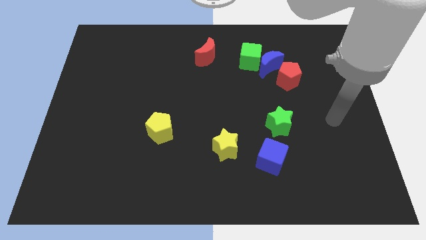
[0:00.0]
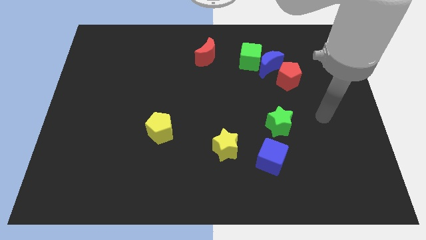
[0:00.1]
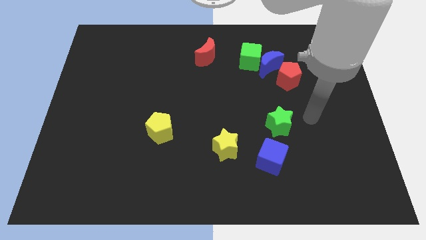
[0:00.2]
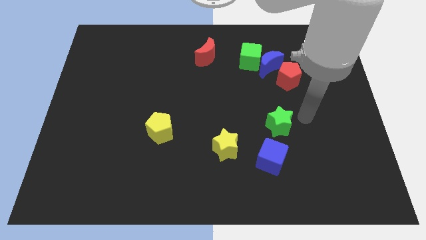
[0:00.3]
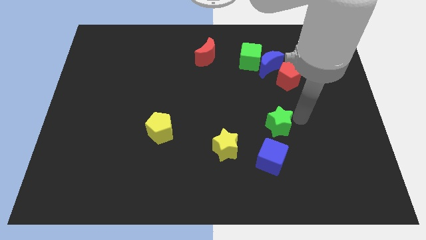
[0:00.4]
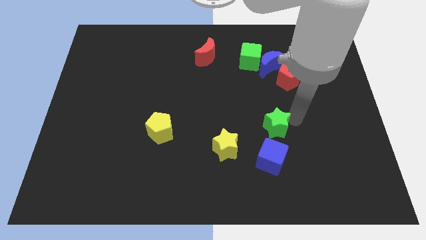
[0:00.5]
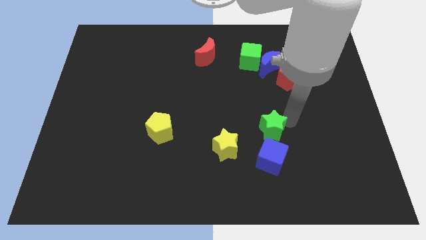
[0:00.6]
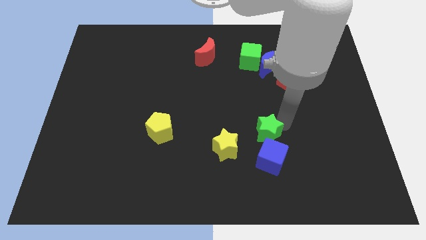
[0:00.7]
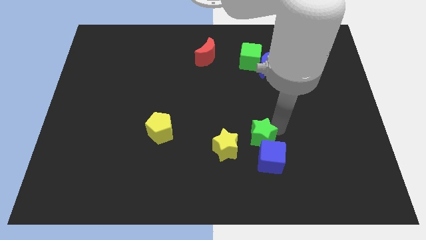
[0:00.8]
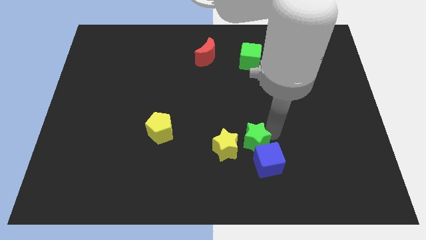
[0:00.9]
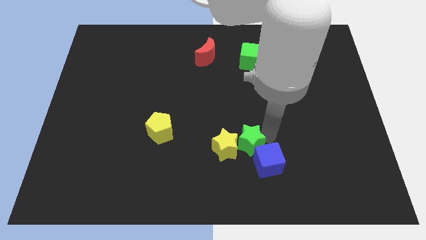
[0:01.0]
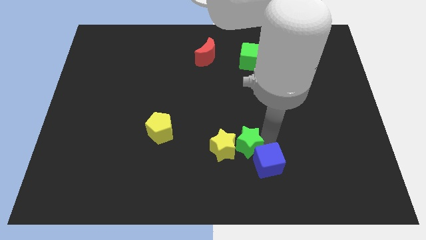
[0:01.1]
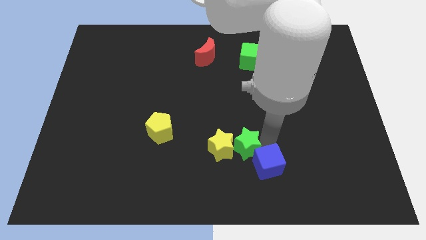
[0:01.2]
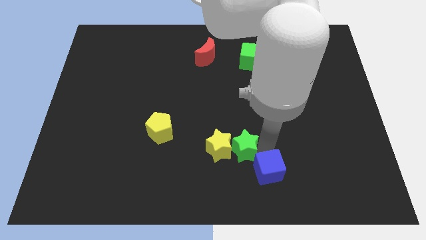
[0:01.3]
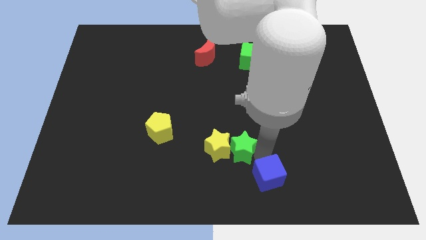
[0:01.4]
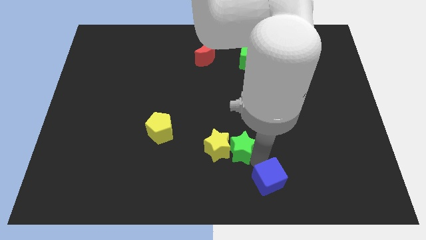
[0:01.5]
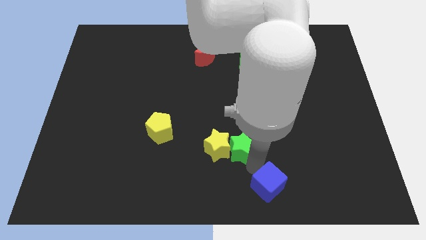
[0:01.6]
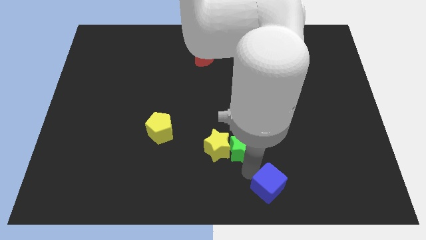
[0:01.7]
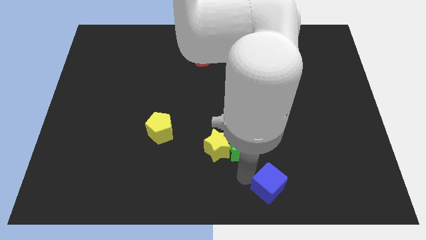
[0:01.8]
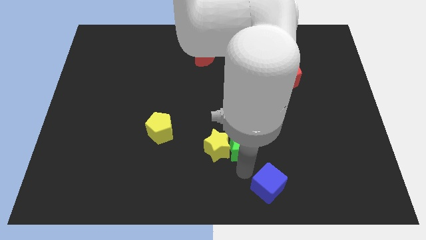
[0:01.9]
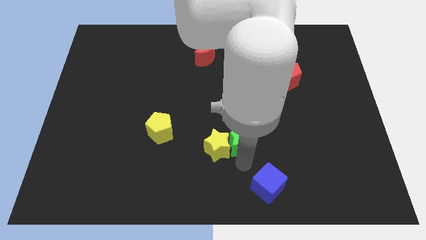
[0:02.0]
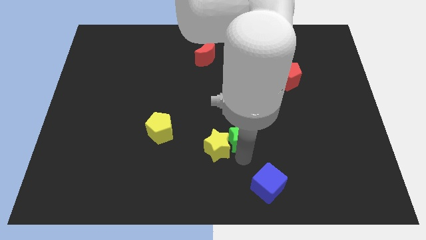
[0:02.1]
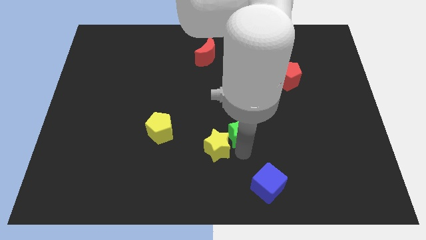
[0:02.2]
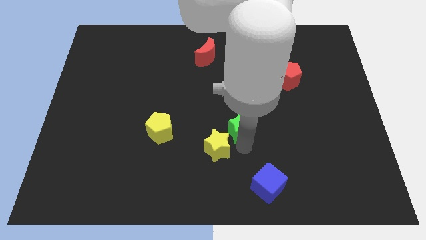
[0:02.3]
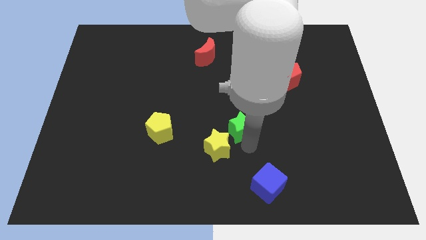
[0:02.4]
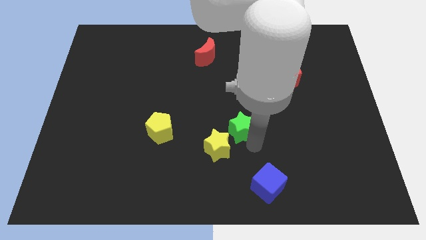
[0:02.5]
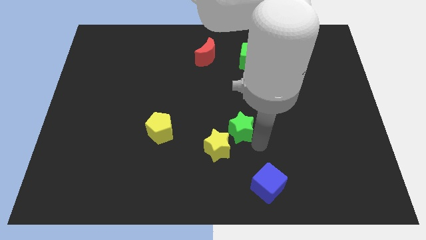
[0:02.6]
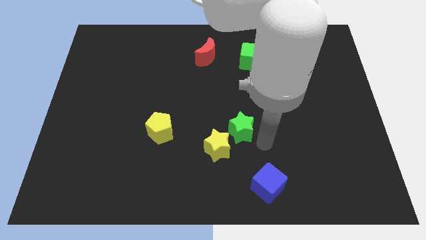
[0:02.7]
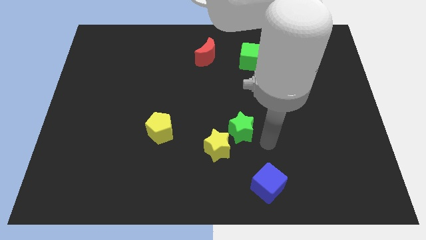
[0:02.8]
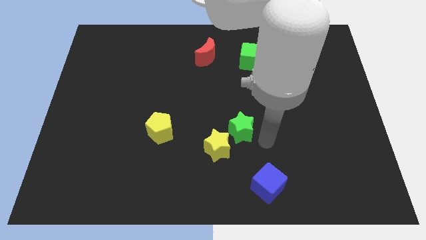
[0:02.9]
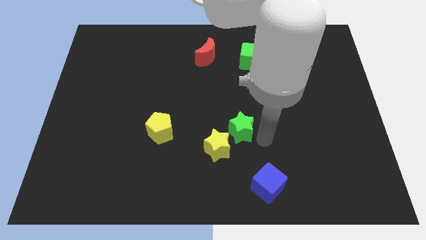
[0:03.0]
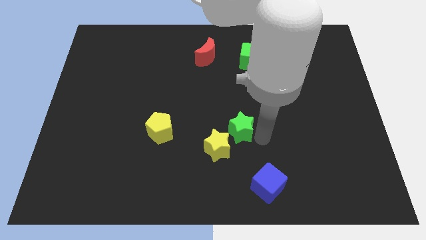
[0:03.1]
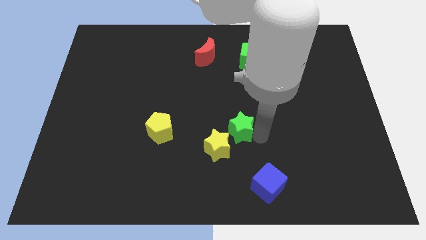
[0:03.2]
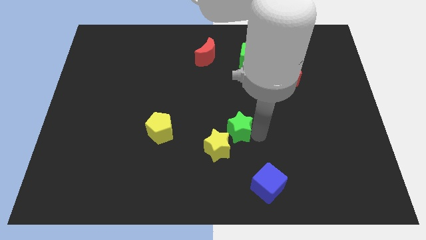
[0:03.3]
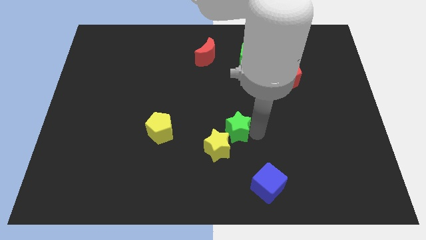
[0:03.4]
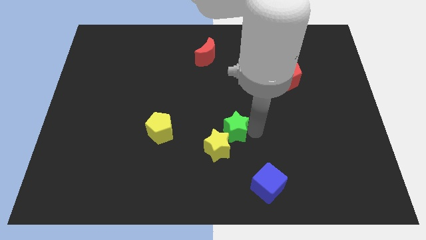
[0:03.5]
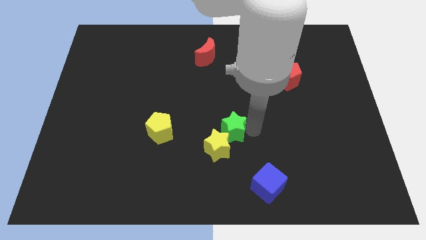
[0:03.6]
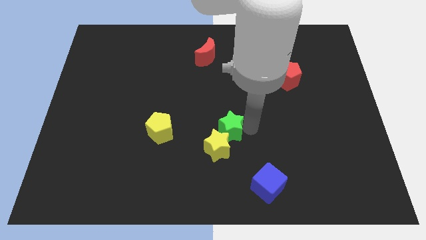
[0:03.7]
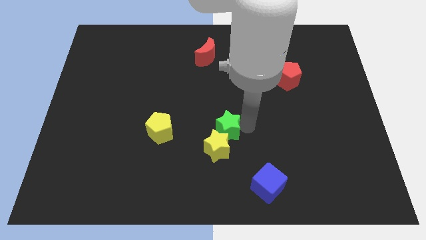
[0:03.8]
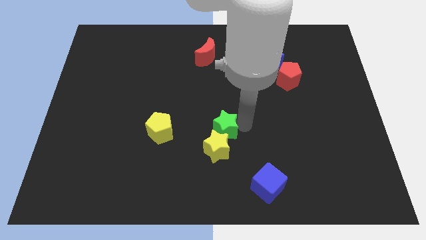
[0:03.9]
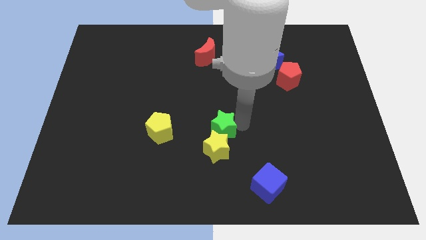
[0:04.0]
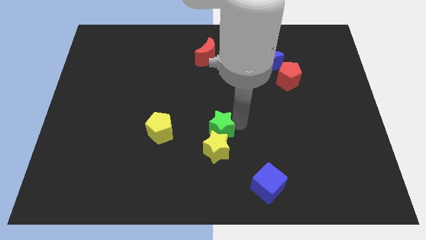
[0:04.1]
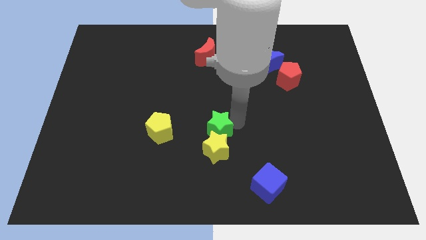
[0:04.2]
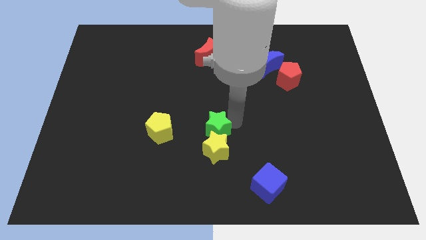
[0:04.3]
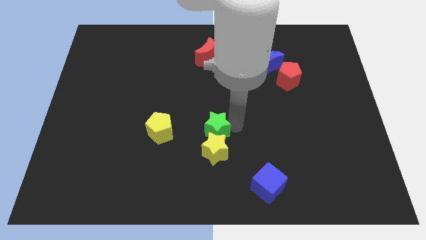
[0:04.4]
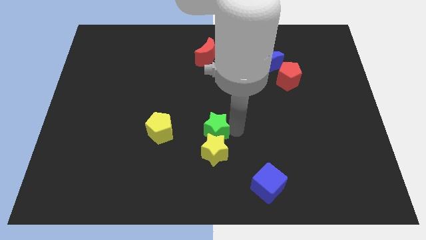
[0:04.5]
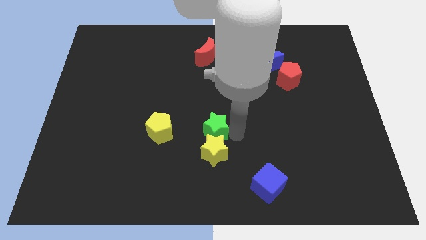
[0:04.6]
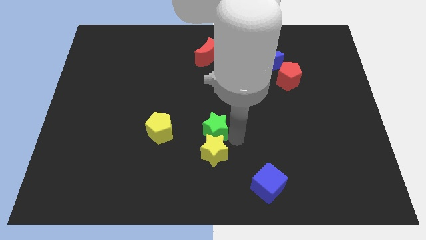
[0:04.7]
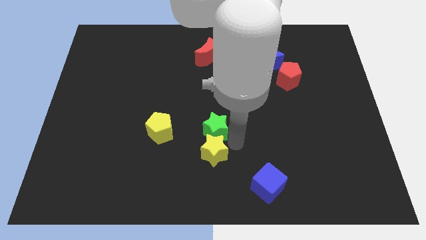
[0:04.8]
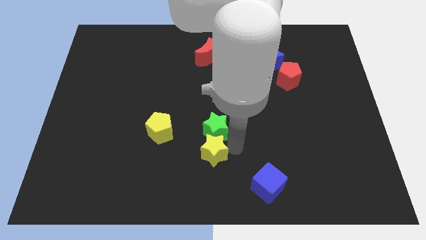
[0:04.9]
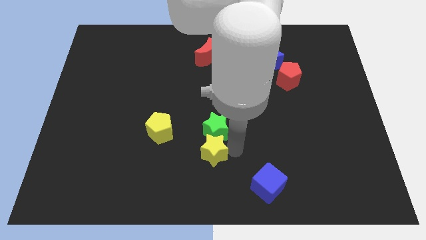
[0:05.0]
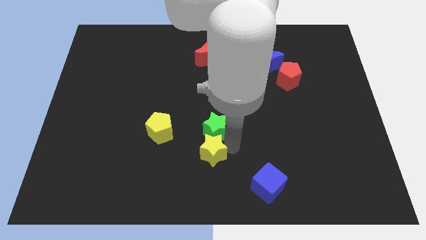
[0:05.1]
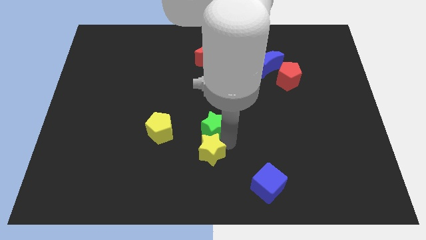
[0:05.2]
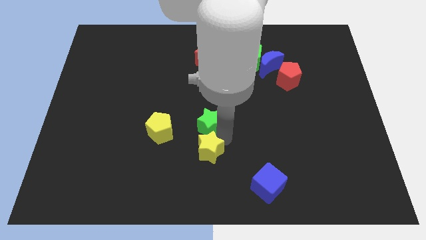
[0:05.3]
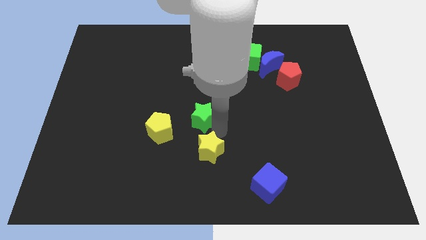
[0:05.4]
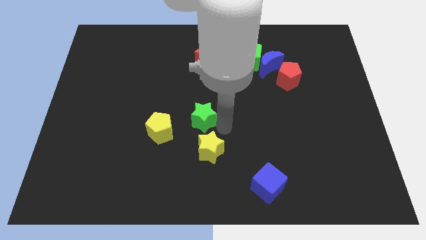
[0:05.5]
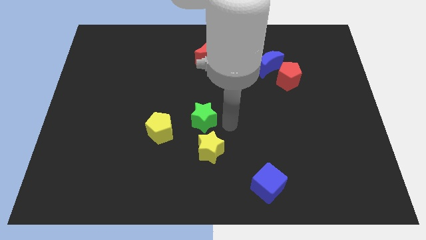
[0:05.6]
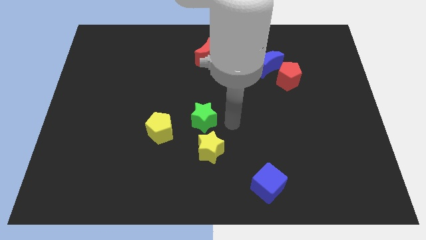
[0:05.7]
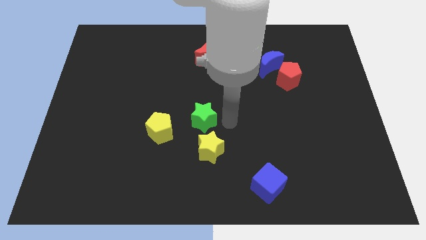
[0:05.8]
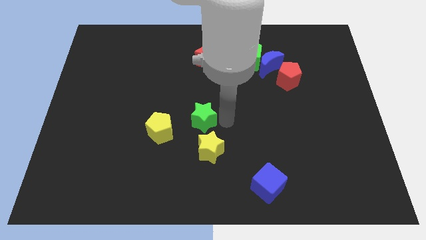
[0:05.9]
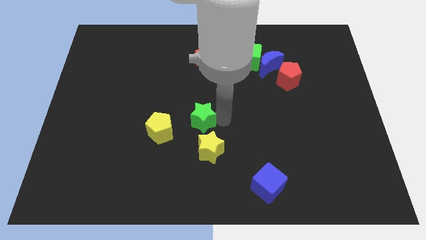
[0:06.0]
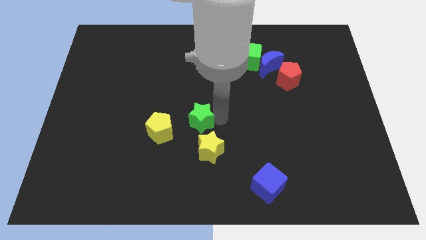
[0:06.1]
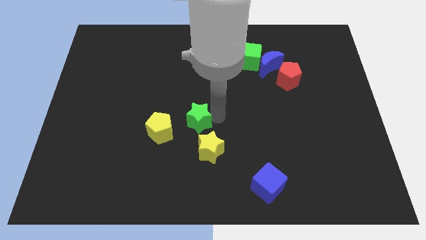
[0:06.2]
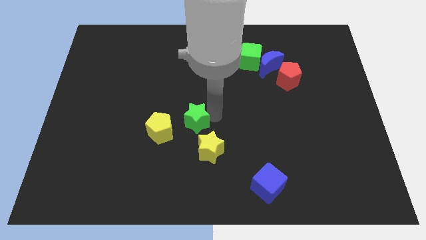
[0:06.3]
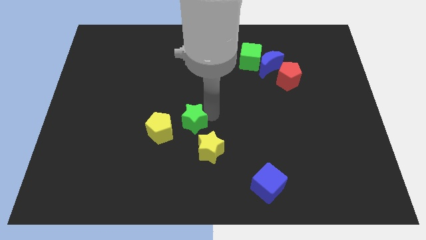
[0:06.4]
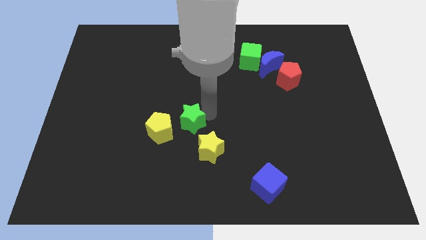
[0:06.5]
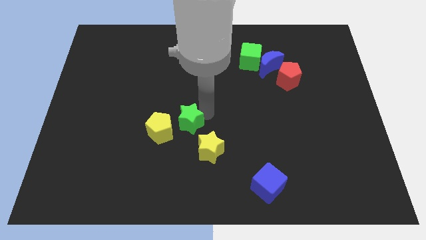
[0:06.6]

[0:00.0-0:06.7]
push the green star left

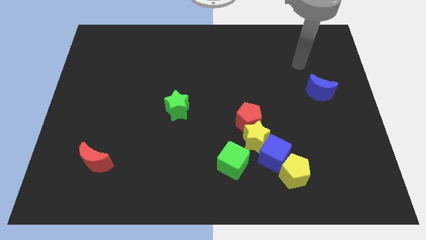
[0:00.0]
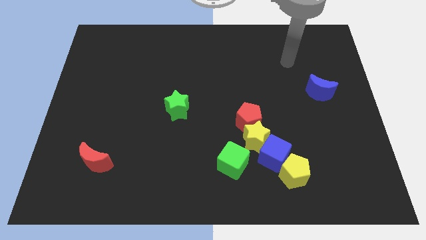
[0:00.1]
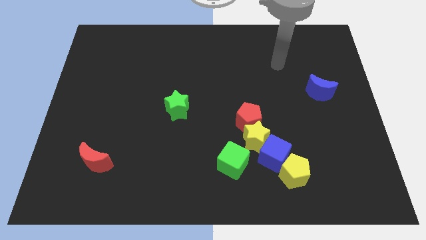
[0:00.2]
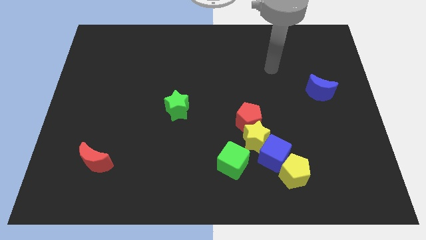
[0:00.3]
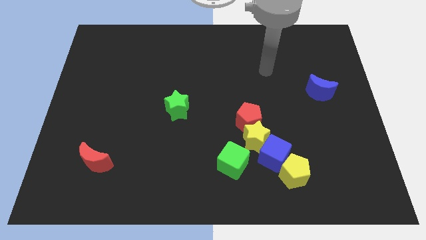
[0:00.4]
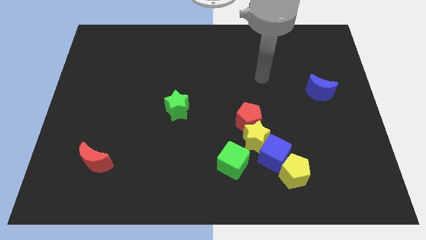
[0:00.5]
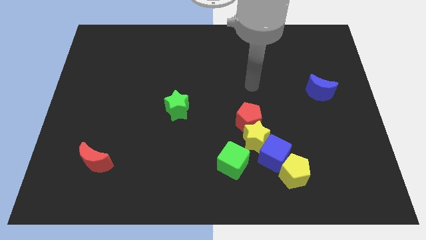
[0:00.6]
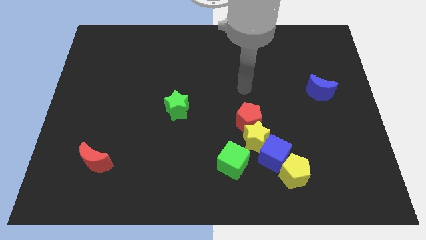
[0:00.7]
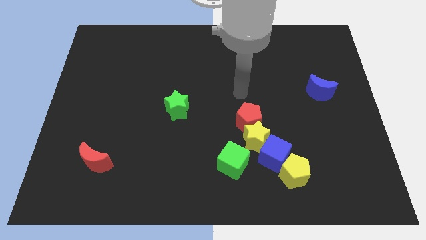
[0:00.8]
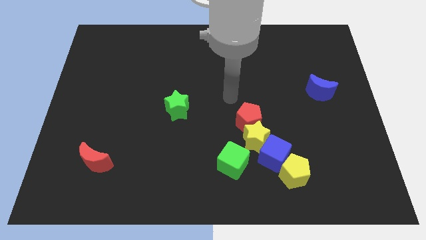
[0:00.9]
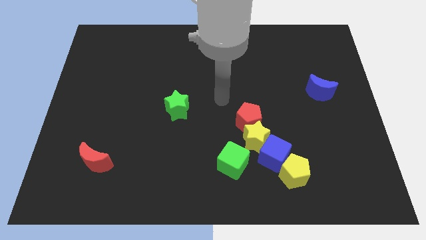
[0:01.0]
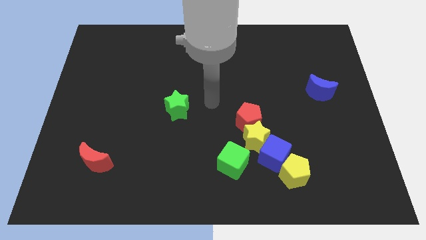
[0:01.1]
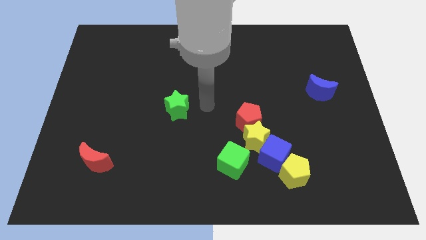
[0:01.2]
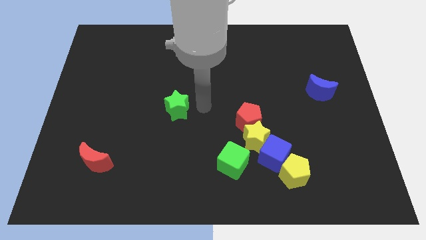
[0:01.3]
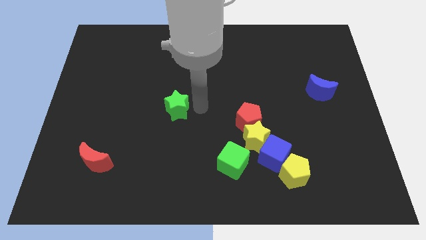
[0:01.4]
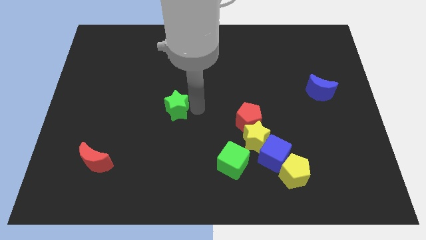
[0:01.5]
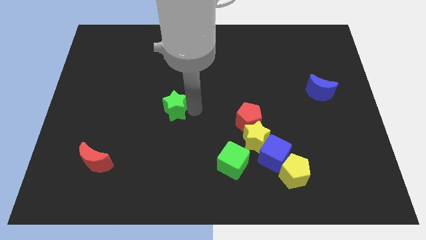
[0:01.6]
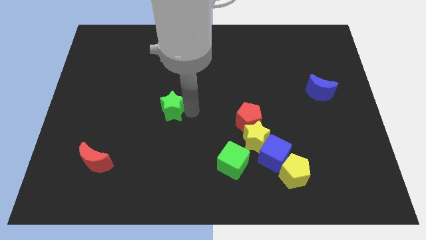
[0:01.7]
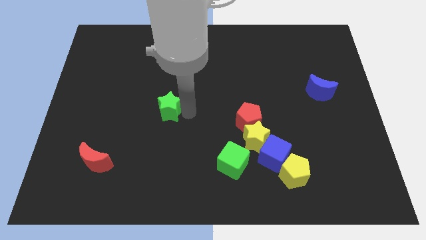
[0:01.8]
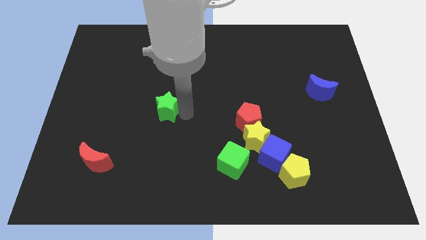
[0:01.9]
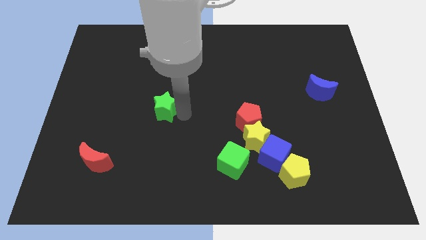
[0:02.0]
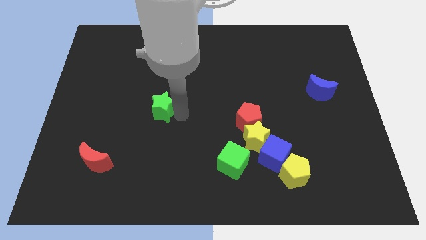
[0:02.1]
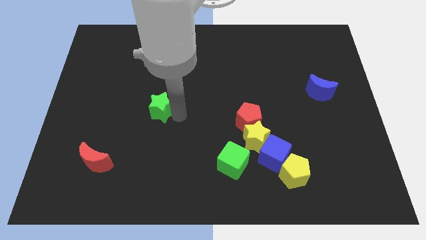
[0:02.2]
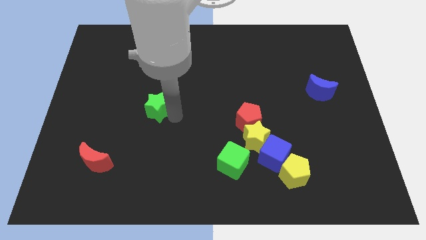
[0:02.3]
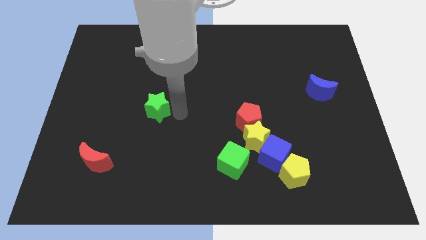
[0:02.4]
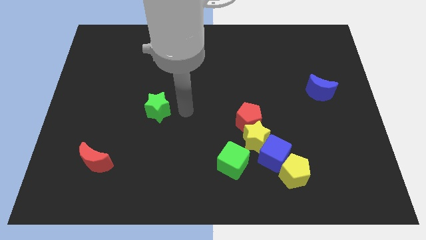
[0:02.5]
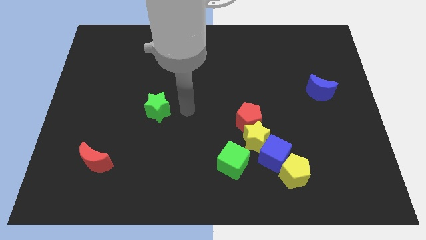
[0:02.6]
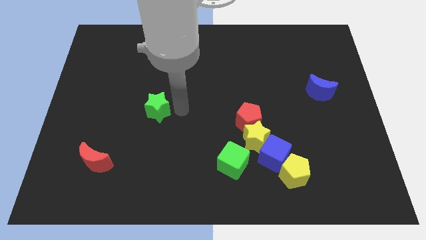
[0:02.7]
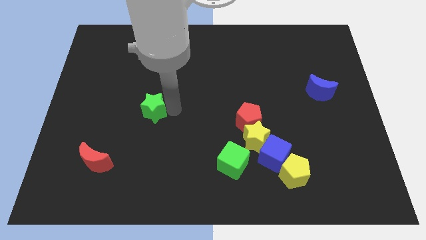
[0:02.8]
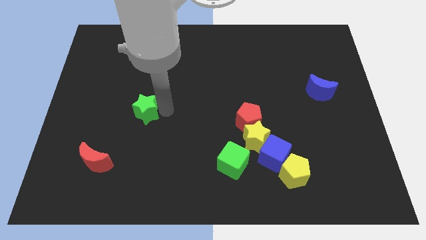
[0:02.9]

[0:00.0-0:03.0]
slightly move the green star to the left
